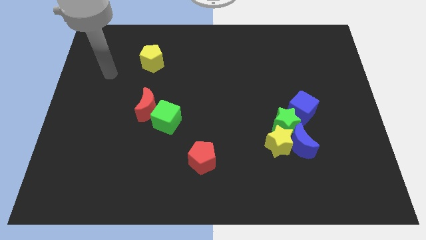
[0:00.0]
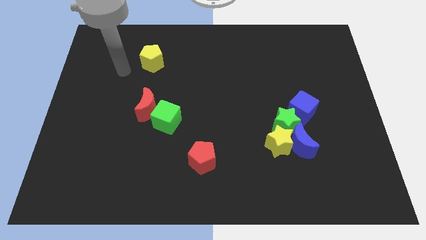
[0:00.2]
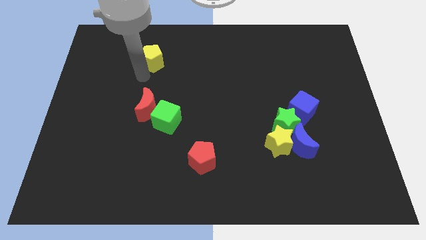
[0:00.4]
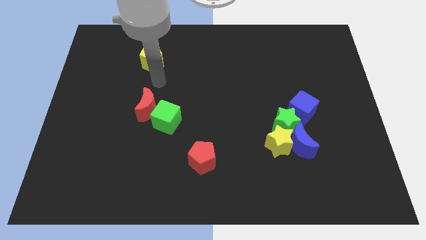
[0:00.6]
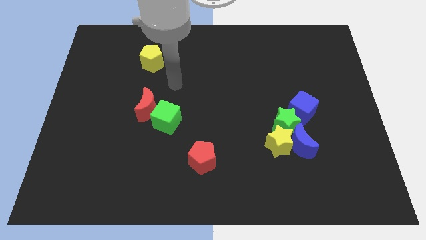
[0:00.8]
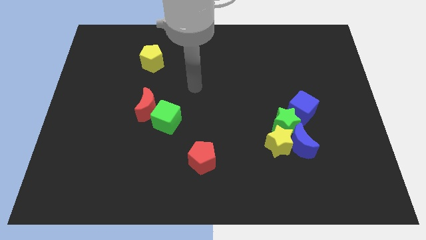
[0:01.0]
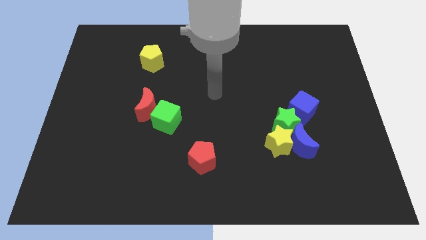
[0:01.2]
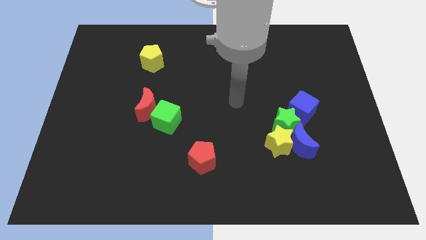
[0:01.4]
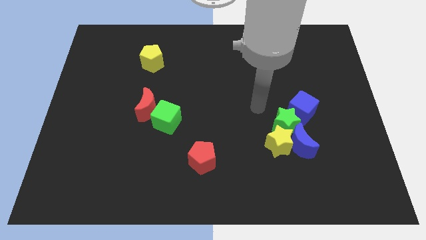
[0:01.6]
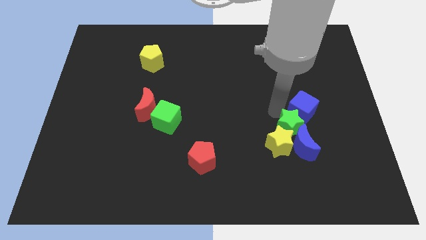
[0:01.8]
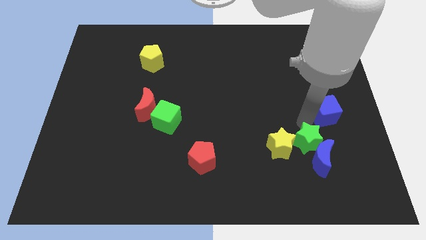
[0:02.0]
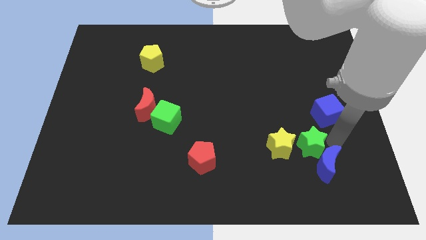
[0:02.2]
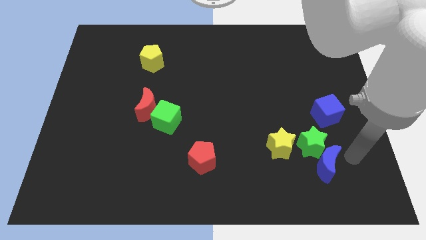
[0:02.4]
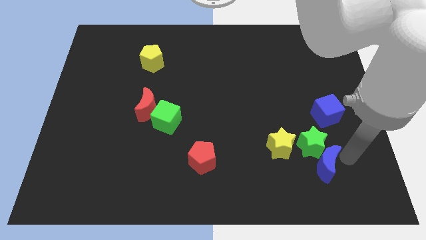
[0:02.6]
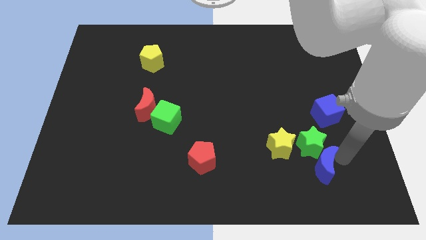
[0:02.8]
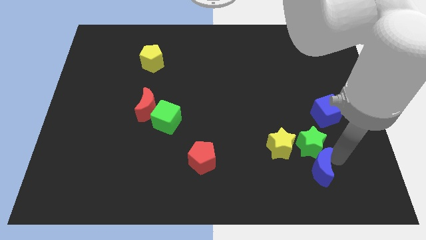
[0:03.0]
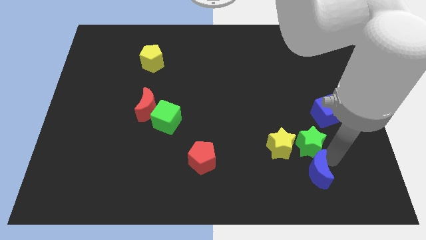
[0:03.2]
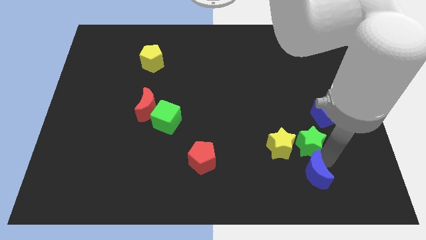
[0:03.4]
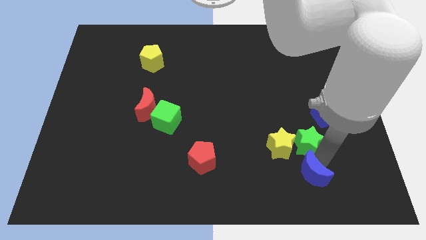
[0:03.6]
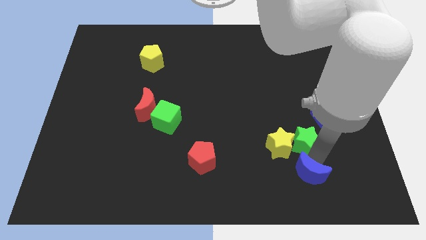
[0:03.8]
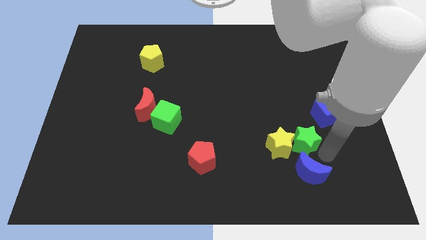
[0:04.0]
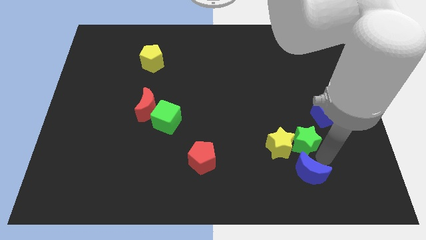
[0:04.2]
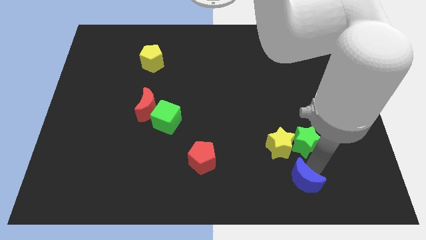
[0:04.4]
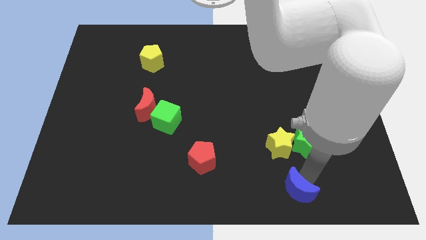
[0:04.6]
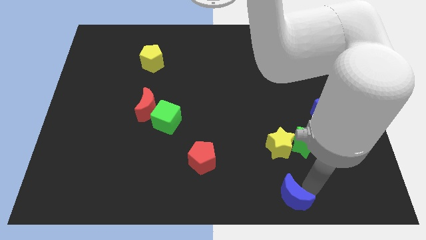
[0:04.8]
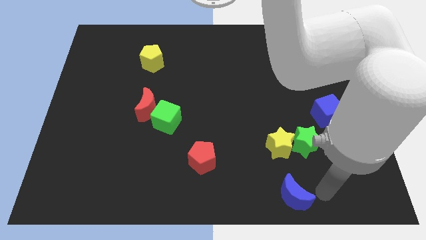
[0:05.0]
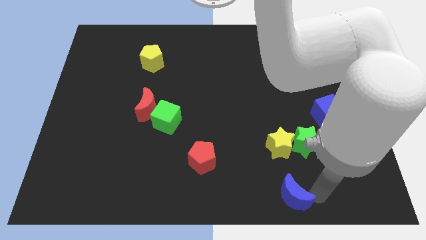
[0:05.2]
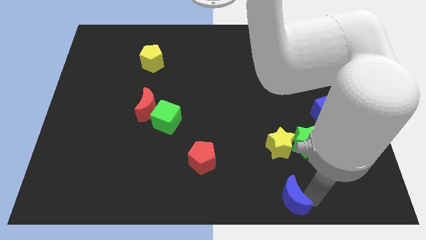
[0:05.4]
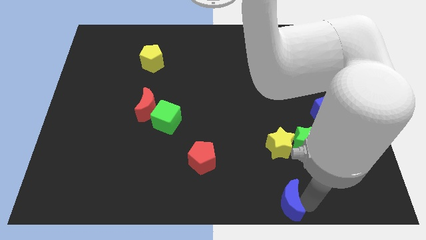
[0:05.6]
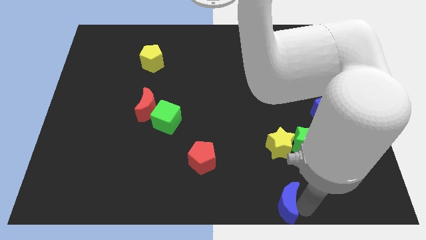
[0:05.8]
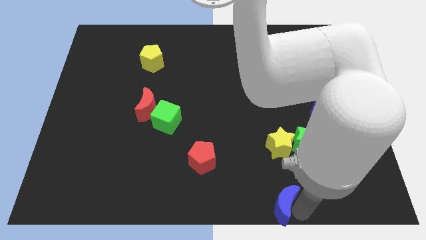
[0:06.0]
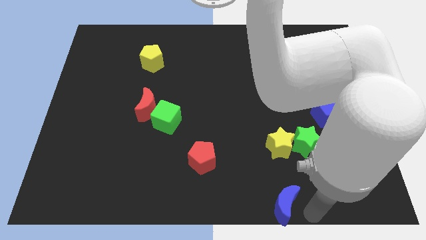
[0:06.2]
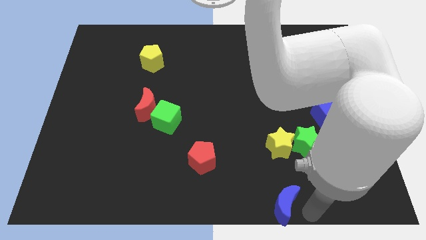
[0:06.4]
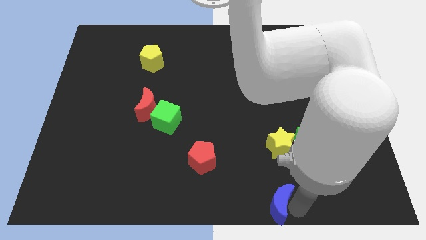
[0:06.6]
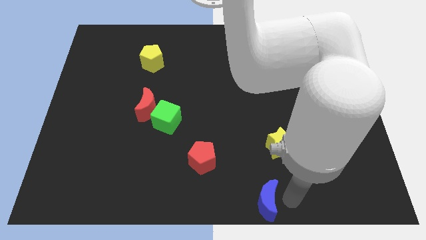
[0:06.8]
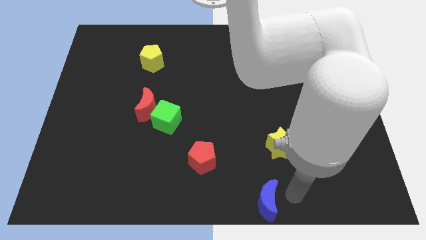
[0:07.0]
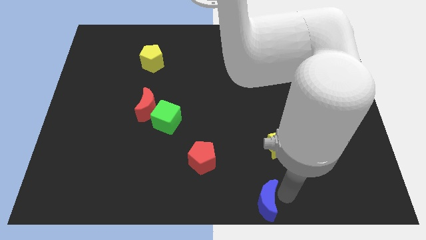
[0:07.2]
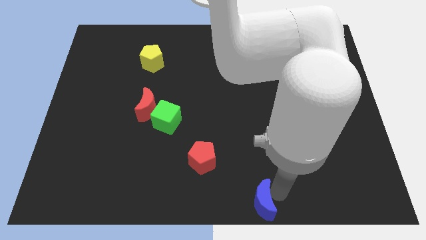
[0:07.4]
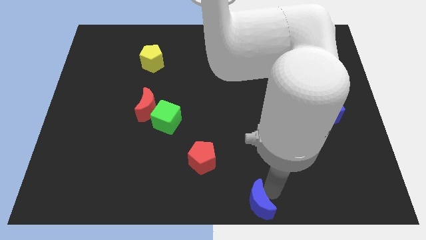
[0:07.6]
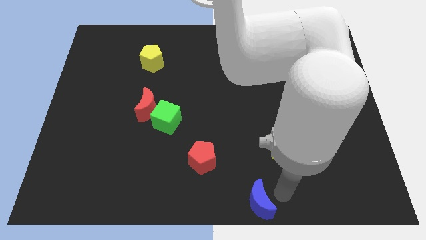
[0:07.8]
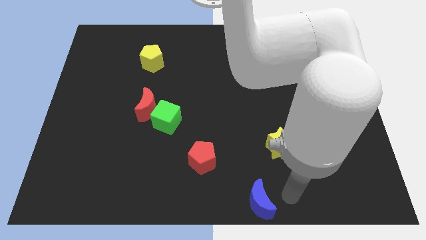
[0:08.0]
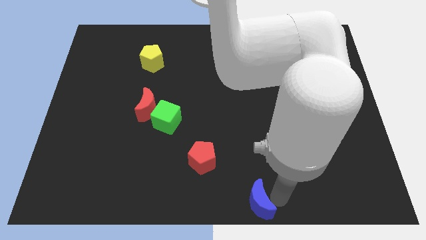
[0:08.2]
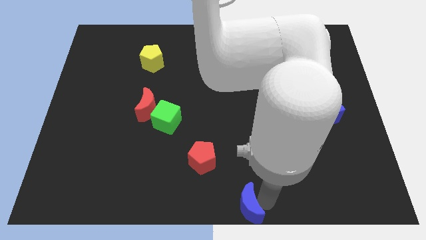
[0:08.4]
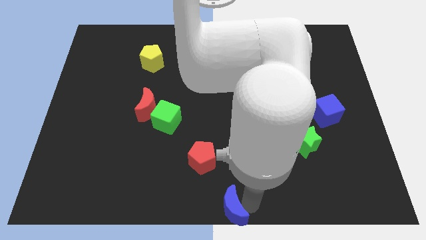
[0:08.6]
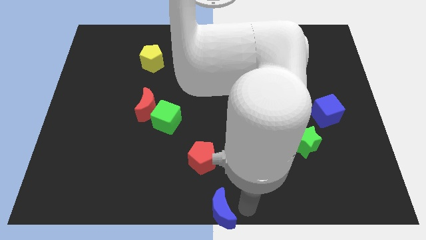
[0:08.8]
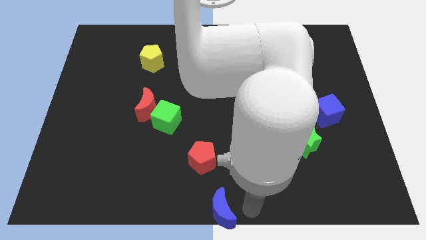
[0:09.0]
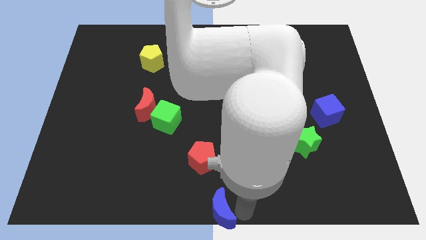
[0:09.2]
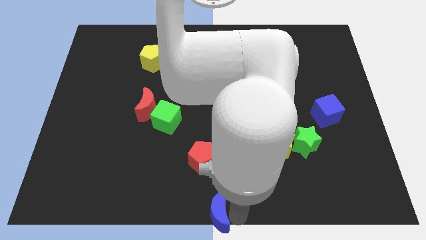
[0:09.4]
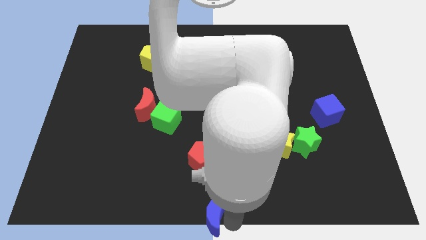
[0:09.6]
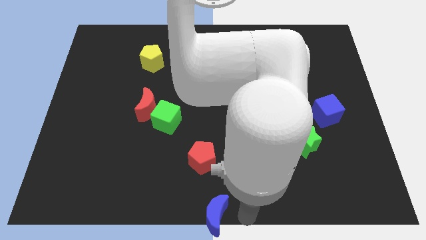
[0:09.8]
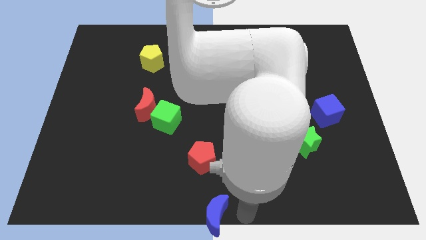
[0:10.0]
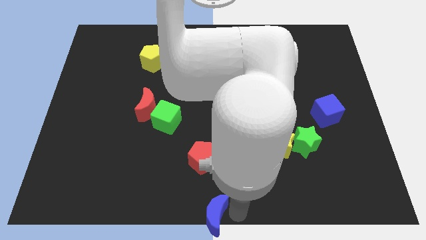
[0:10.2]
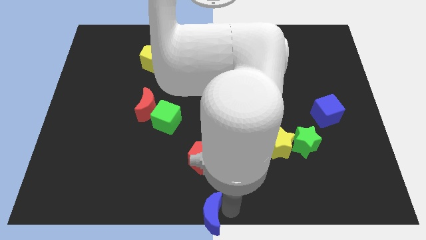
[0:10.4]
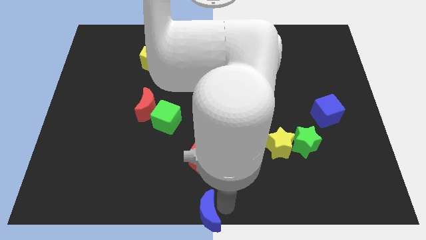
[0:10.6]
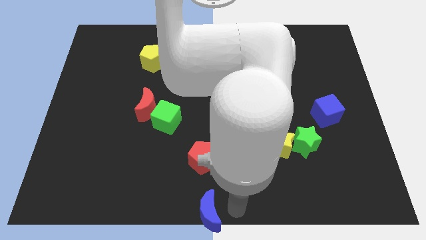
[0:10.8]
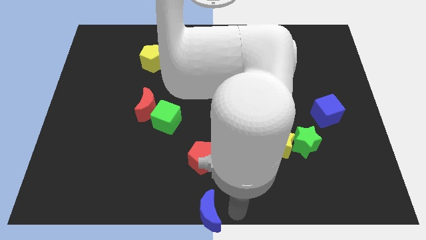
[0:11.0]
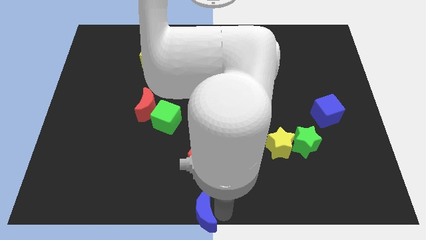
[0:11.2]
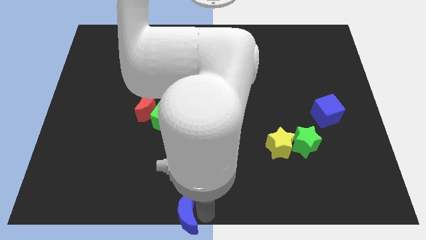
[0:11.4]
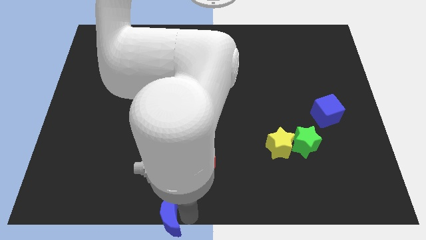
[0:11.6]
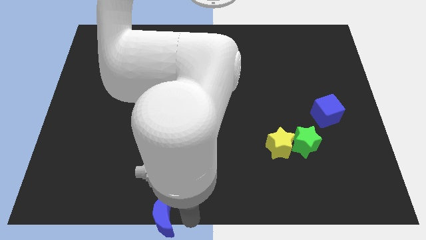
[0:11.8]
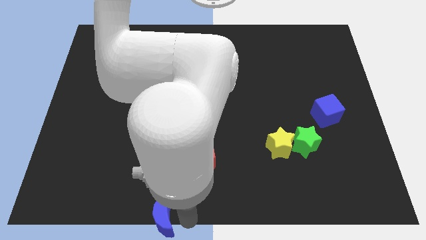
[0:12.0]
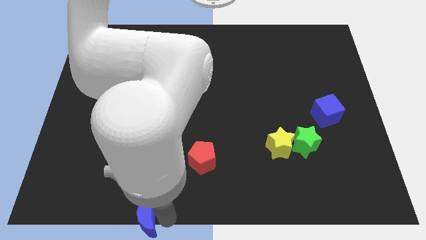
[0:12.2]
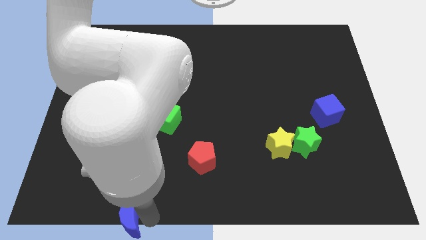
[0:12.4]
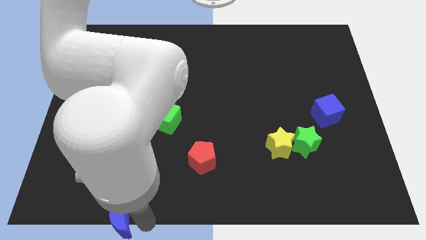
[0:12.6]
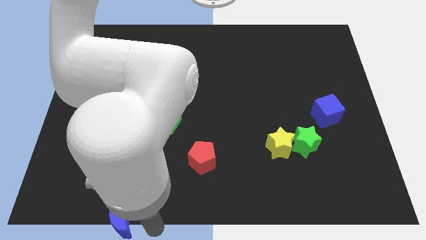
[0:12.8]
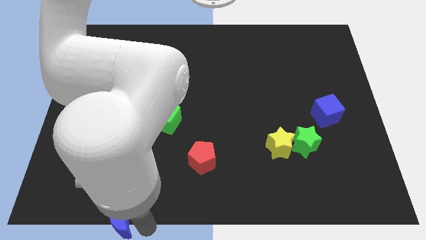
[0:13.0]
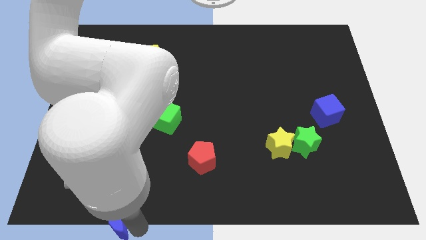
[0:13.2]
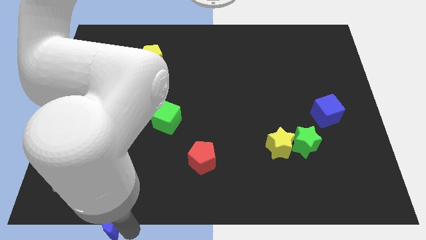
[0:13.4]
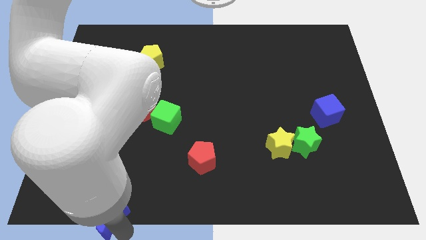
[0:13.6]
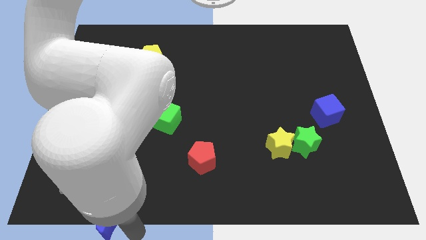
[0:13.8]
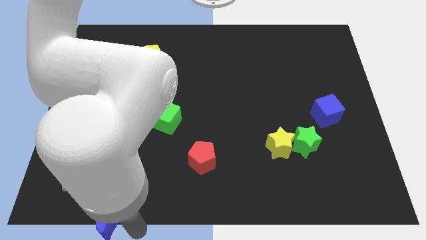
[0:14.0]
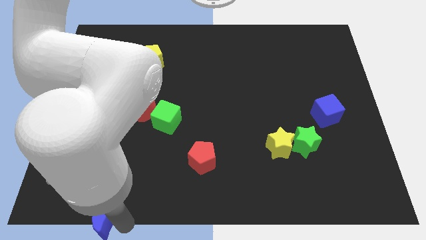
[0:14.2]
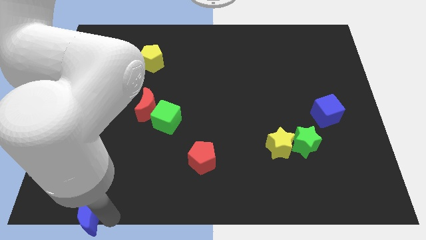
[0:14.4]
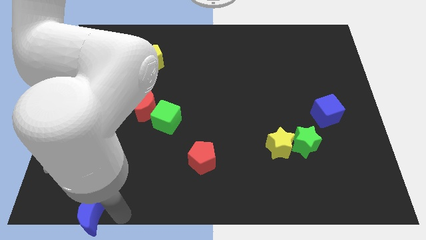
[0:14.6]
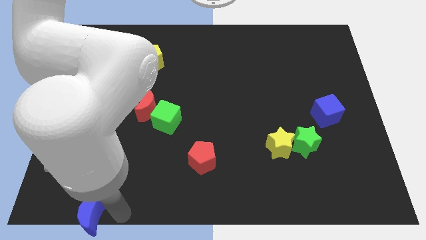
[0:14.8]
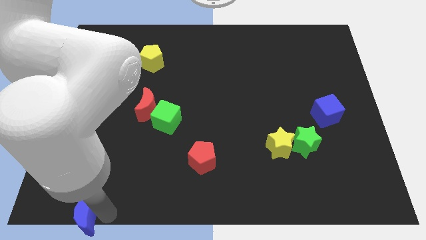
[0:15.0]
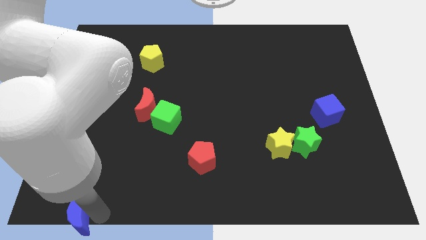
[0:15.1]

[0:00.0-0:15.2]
slide the blue moon to the bottom left

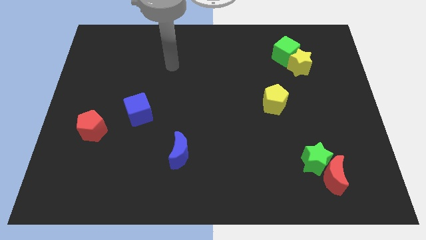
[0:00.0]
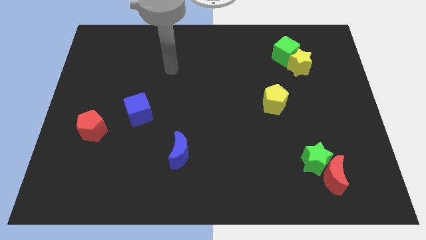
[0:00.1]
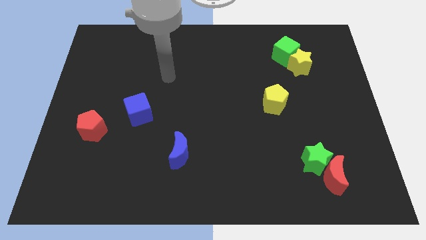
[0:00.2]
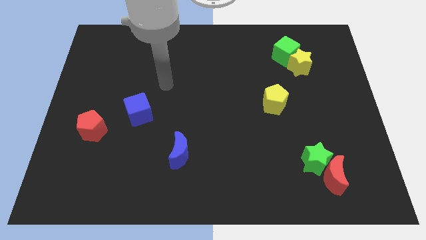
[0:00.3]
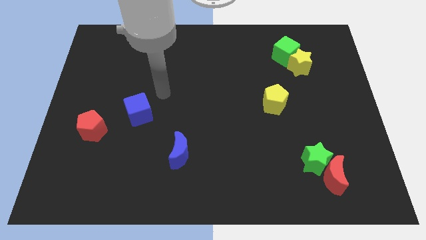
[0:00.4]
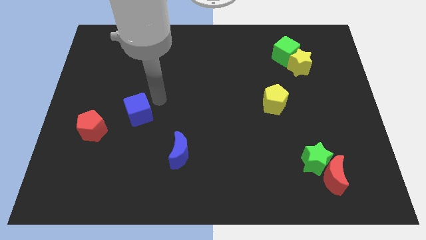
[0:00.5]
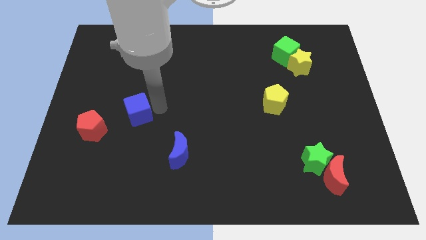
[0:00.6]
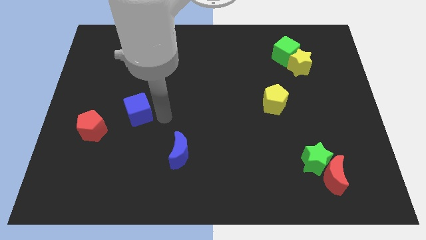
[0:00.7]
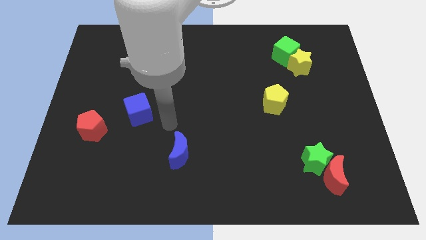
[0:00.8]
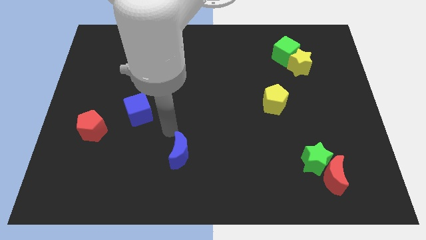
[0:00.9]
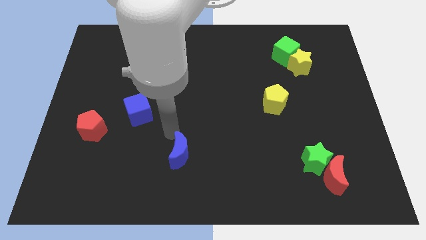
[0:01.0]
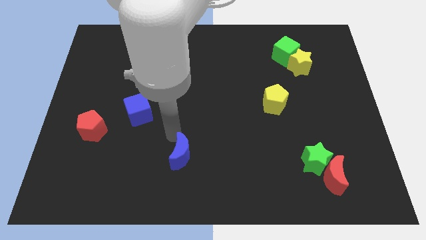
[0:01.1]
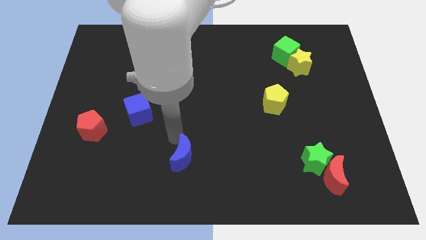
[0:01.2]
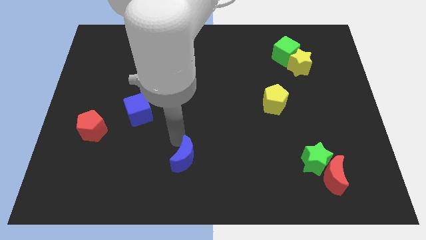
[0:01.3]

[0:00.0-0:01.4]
slide the blue moon to the bottom side
